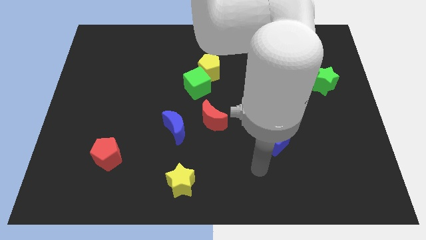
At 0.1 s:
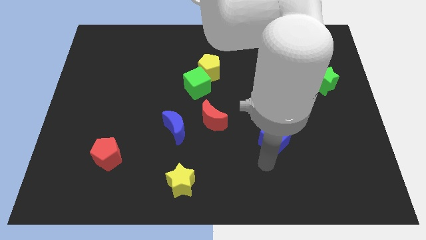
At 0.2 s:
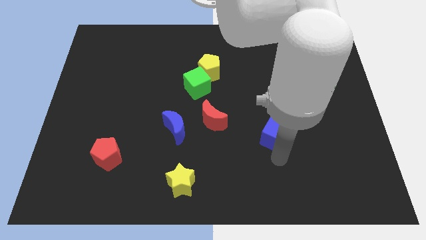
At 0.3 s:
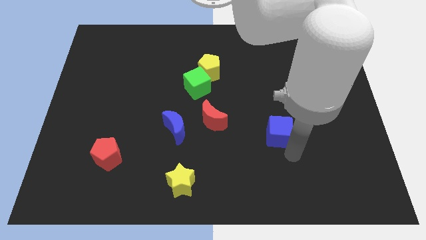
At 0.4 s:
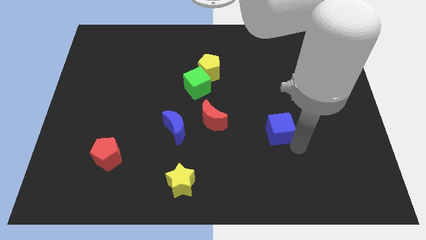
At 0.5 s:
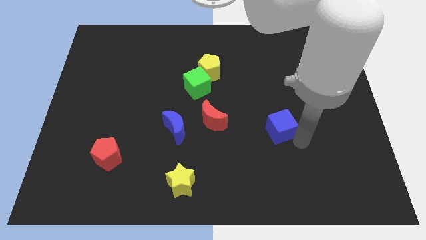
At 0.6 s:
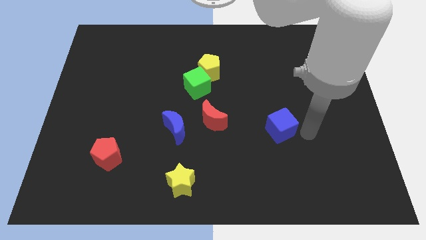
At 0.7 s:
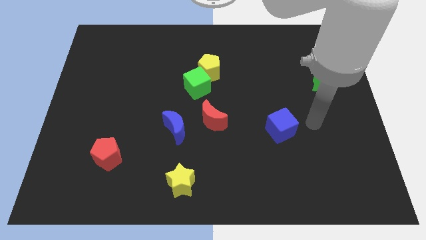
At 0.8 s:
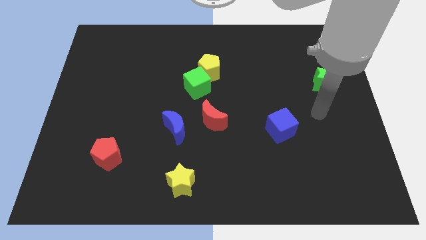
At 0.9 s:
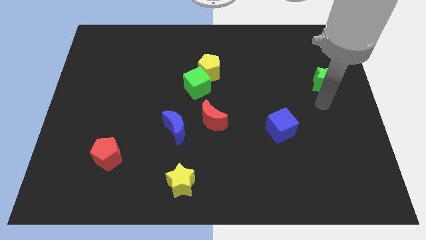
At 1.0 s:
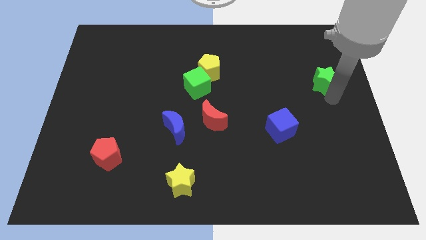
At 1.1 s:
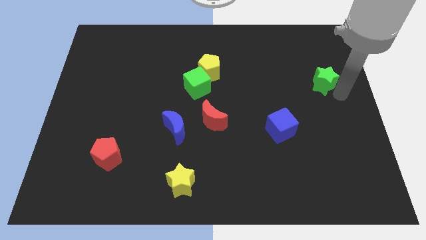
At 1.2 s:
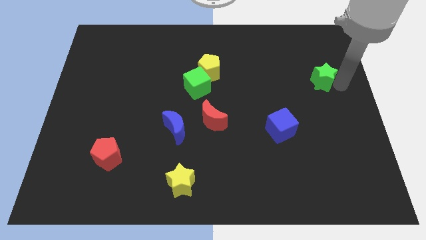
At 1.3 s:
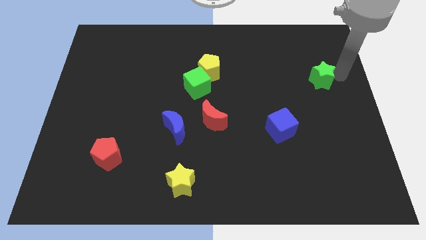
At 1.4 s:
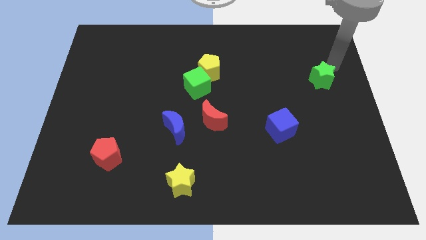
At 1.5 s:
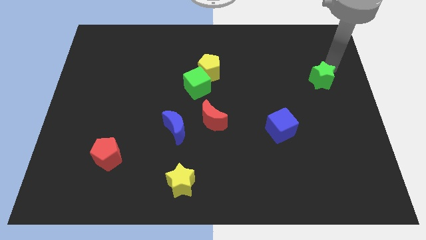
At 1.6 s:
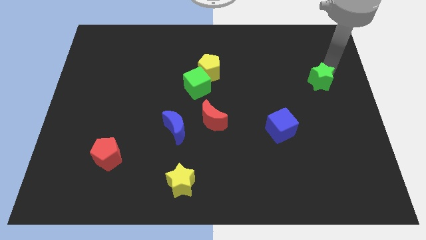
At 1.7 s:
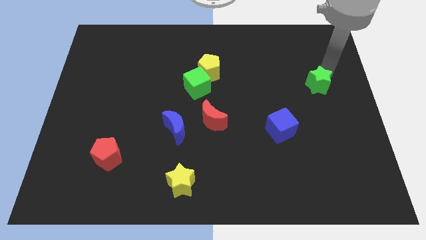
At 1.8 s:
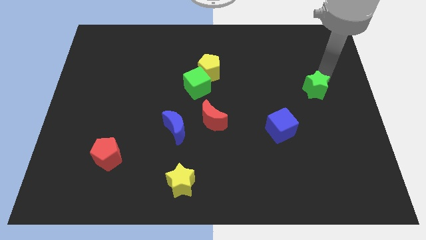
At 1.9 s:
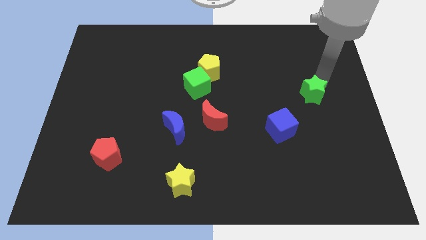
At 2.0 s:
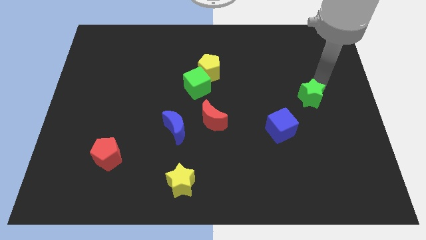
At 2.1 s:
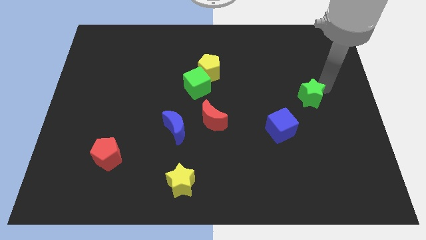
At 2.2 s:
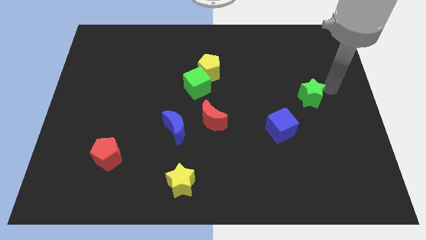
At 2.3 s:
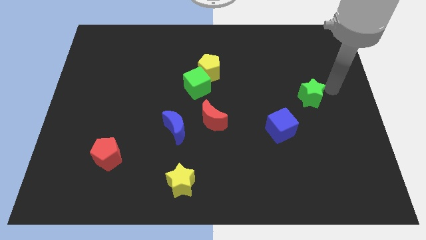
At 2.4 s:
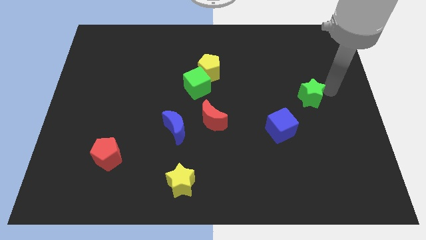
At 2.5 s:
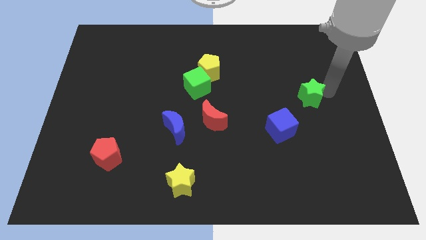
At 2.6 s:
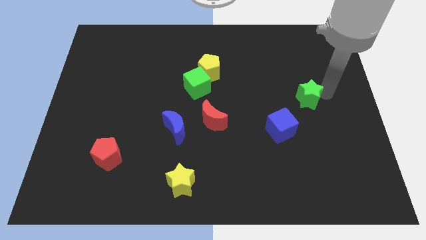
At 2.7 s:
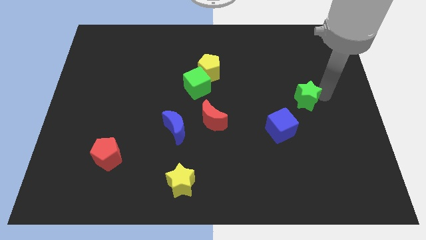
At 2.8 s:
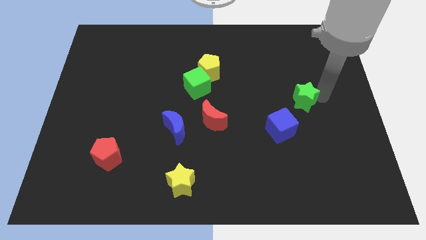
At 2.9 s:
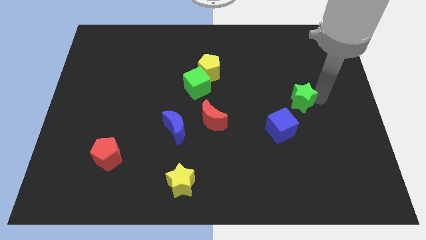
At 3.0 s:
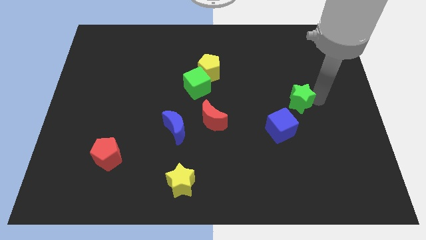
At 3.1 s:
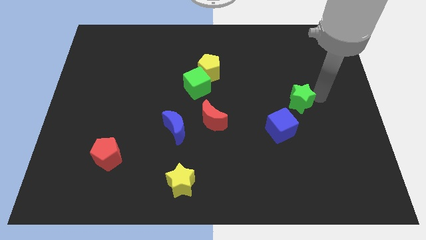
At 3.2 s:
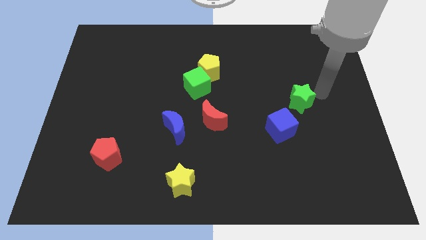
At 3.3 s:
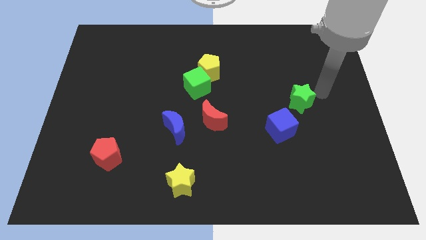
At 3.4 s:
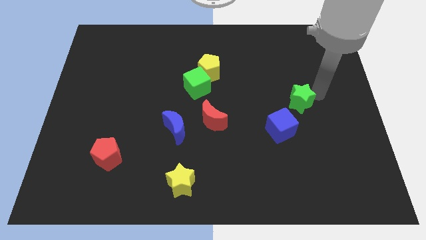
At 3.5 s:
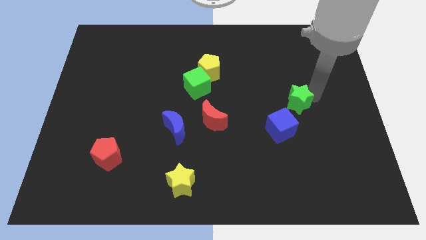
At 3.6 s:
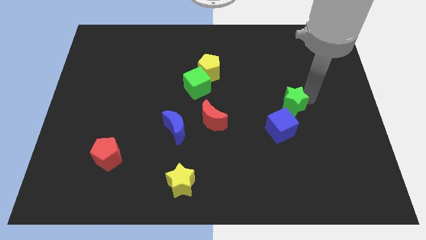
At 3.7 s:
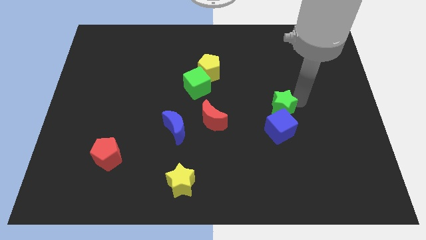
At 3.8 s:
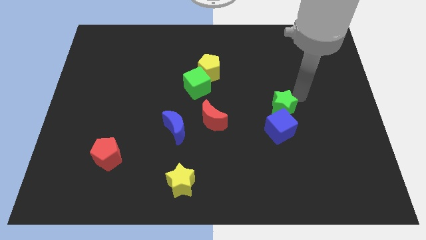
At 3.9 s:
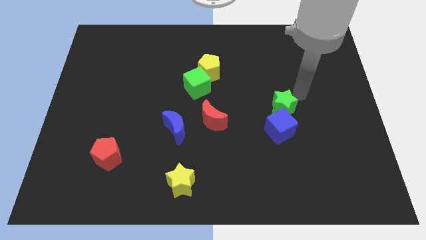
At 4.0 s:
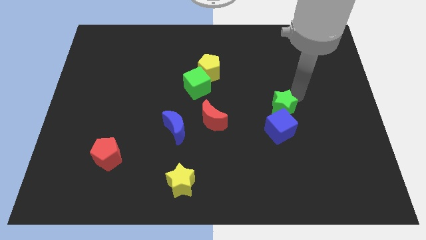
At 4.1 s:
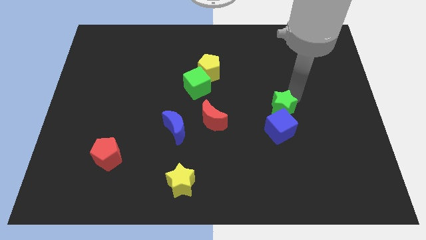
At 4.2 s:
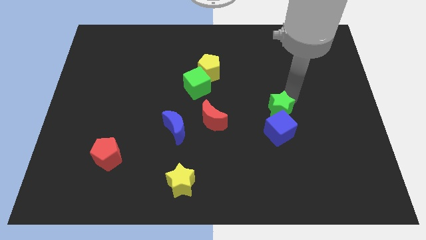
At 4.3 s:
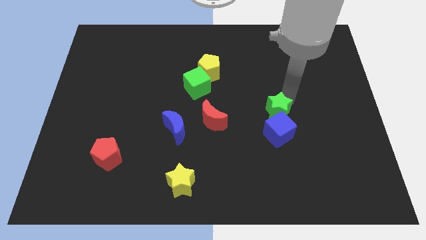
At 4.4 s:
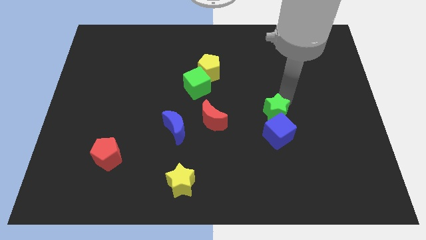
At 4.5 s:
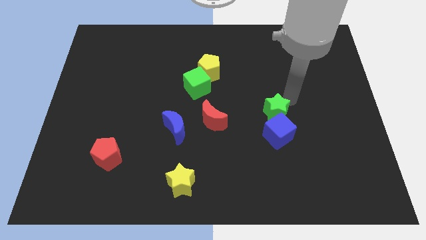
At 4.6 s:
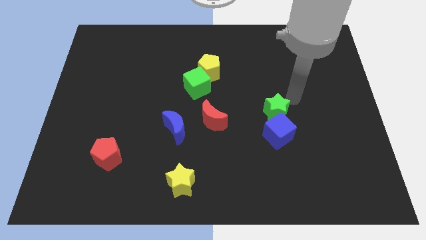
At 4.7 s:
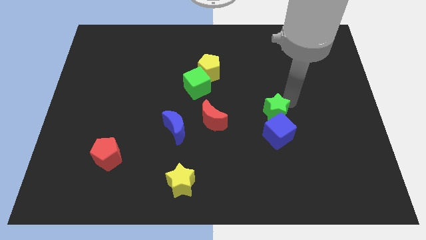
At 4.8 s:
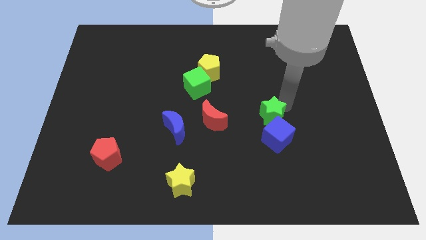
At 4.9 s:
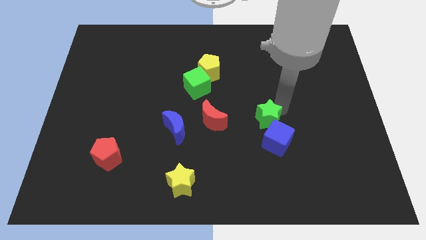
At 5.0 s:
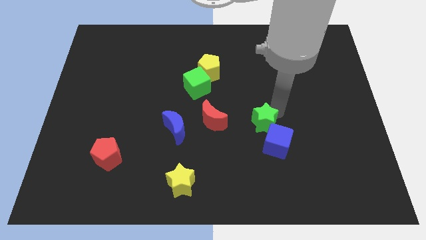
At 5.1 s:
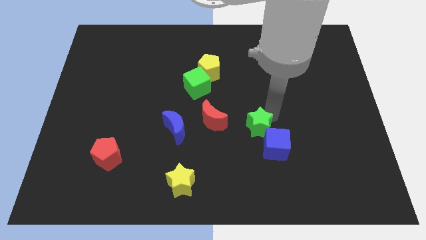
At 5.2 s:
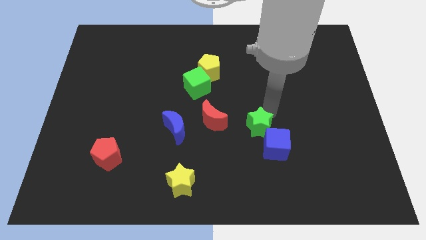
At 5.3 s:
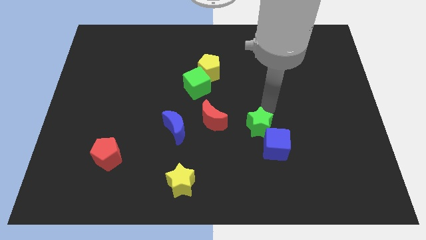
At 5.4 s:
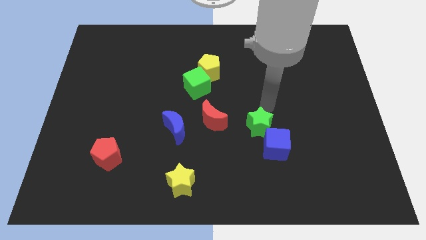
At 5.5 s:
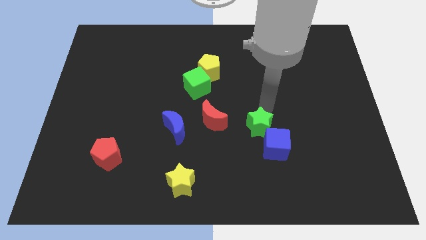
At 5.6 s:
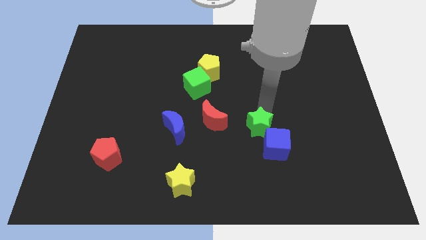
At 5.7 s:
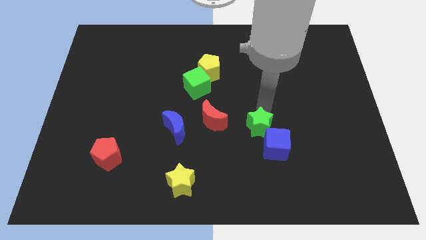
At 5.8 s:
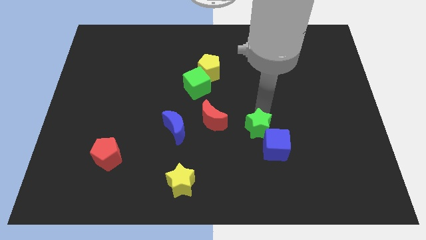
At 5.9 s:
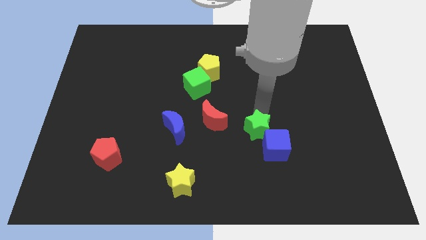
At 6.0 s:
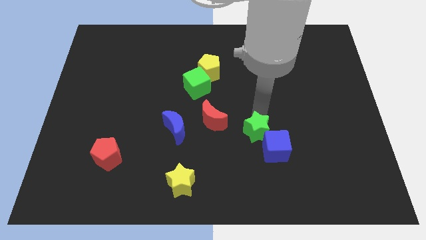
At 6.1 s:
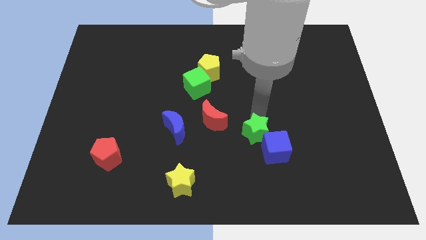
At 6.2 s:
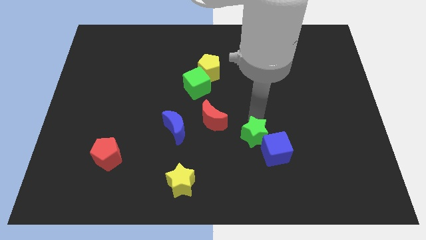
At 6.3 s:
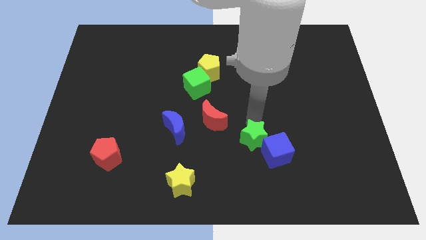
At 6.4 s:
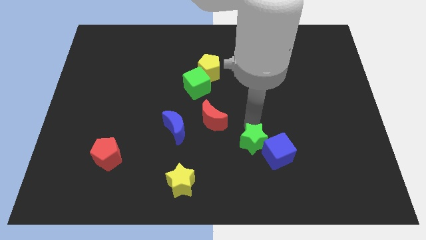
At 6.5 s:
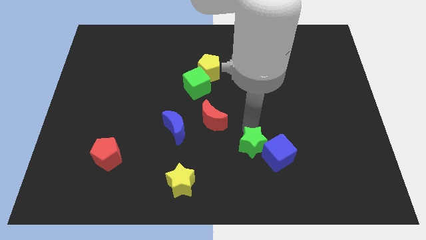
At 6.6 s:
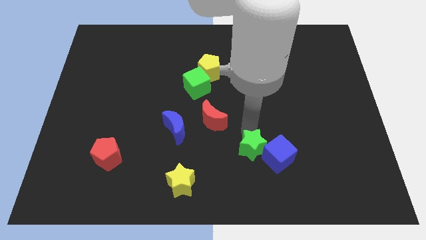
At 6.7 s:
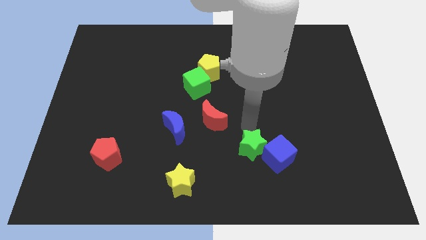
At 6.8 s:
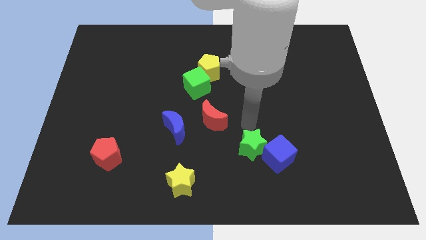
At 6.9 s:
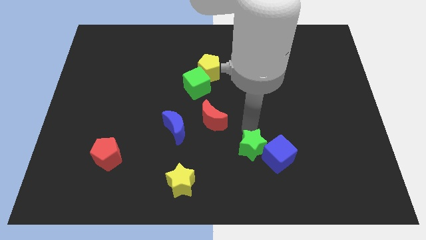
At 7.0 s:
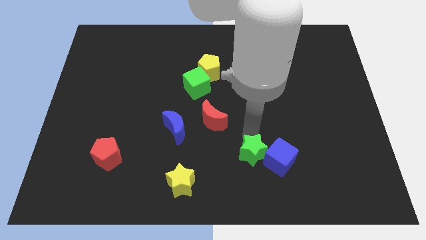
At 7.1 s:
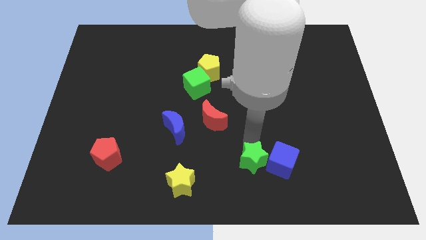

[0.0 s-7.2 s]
put the green star diagonally down and to the left of the blue cube

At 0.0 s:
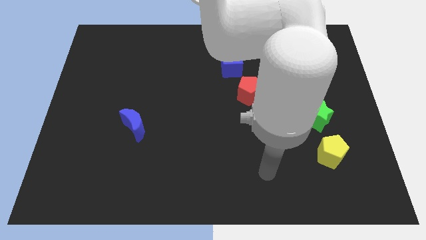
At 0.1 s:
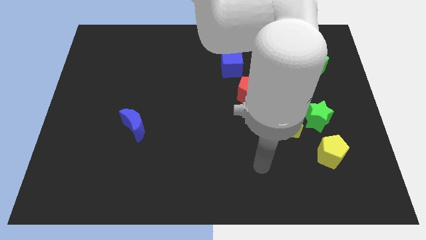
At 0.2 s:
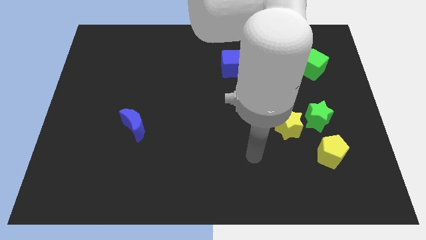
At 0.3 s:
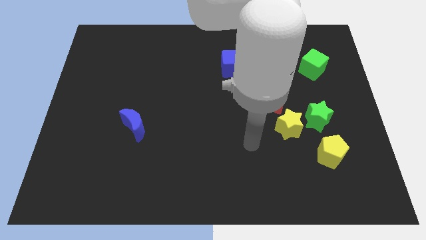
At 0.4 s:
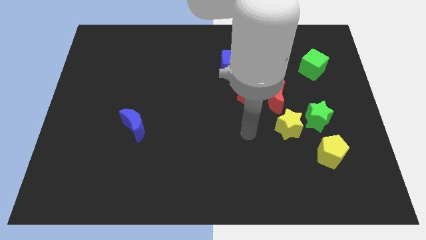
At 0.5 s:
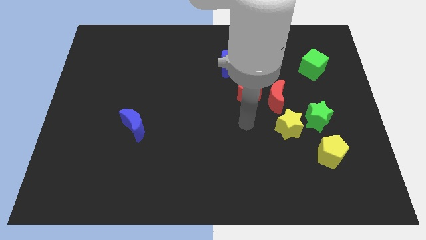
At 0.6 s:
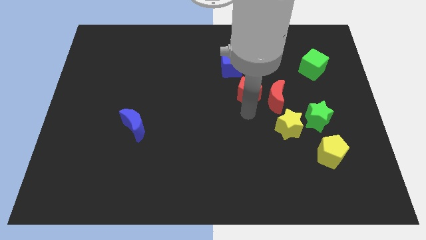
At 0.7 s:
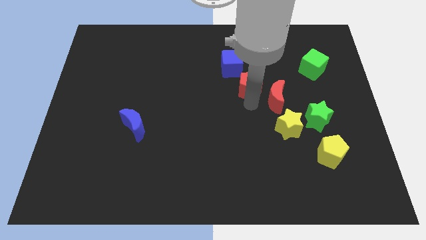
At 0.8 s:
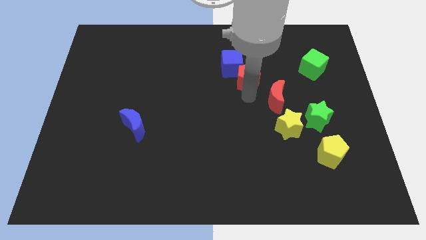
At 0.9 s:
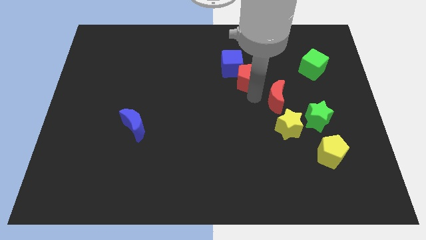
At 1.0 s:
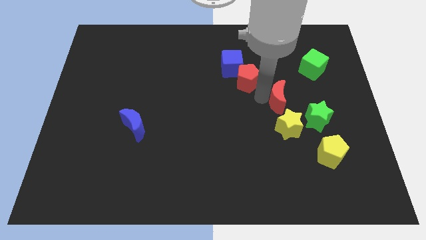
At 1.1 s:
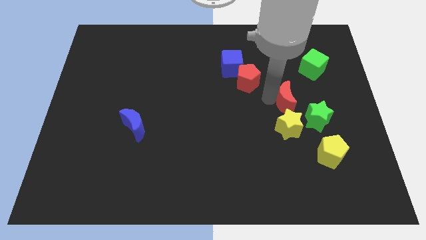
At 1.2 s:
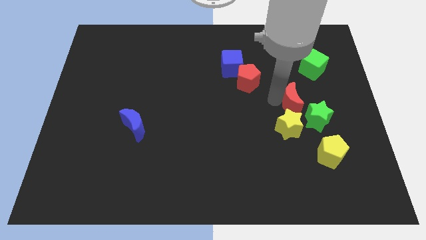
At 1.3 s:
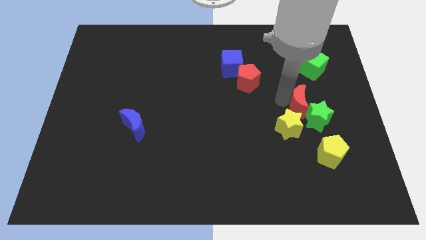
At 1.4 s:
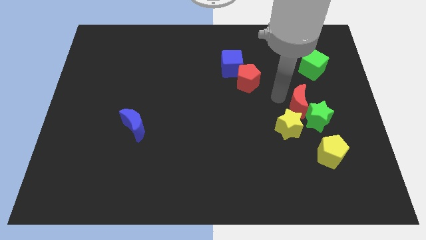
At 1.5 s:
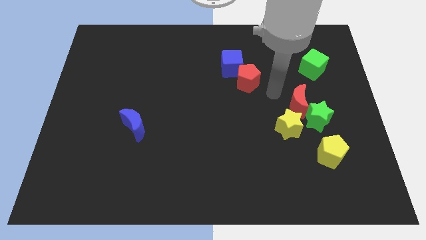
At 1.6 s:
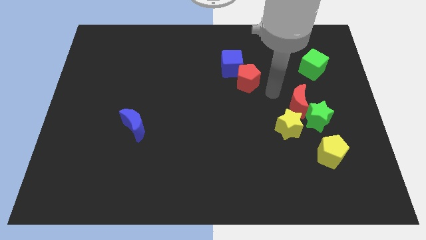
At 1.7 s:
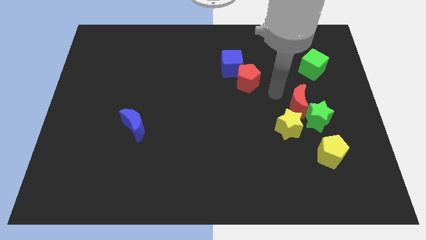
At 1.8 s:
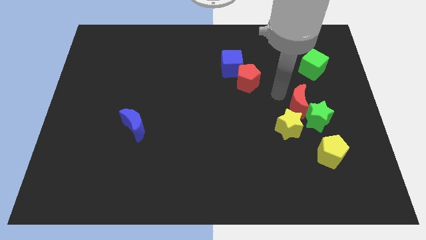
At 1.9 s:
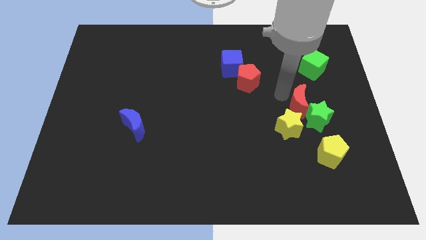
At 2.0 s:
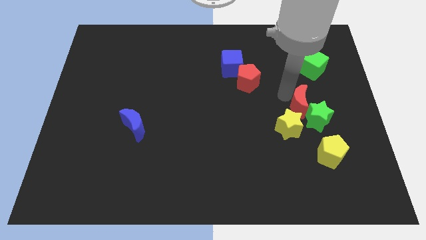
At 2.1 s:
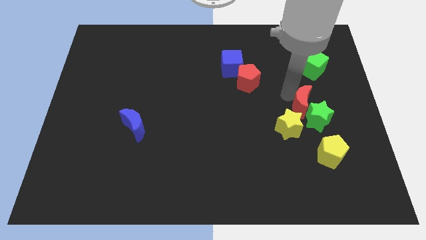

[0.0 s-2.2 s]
move the red moon to the top side of the yellow pentagon
